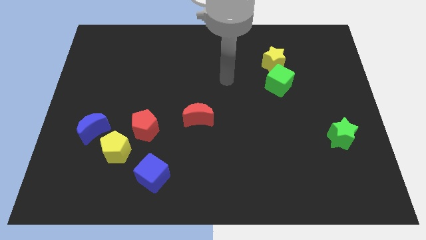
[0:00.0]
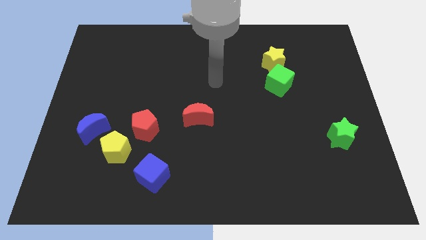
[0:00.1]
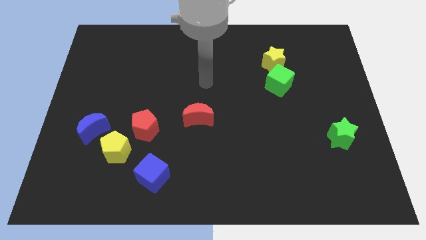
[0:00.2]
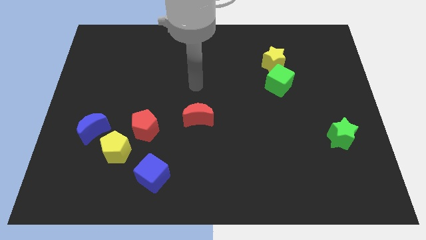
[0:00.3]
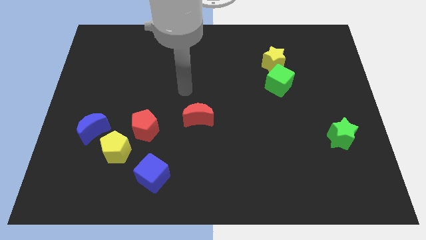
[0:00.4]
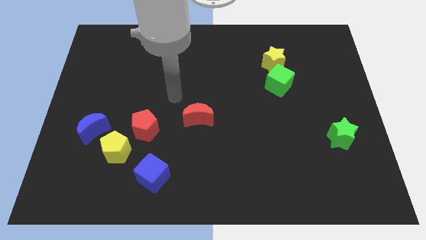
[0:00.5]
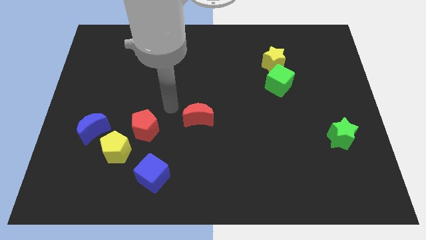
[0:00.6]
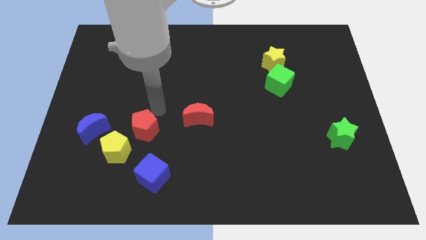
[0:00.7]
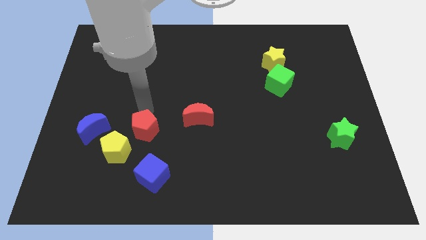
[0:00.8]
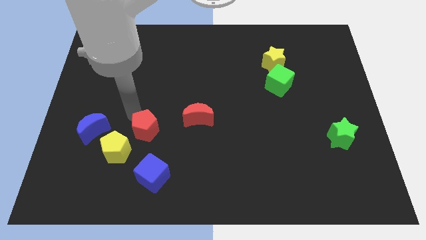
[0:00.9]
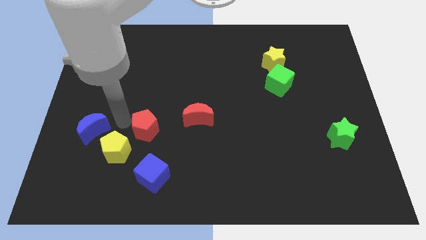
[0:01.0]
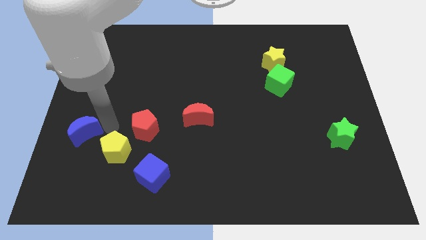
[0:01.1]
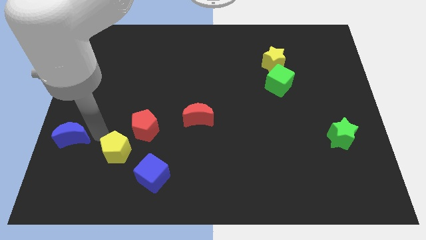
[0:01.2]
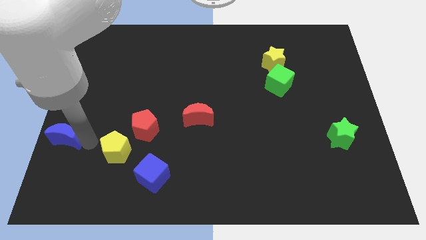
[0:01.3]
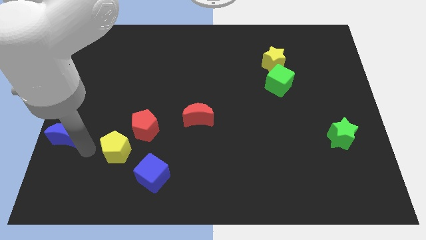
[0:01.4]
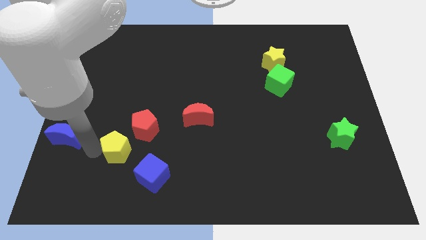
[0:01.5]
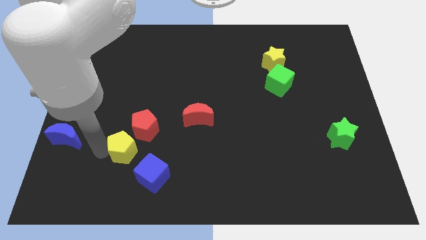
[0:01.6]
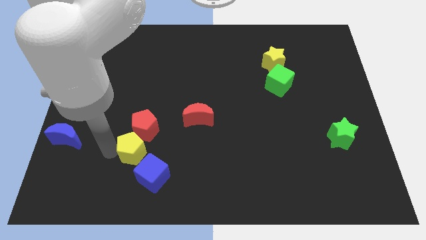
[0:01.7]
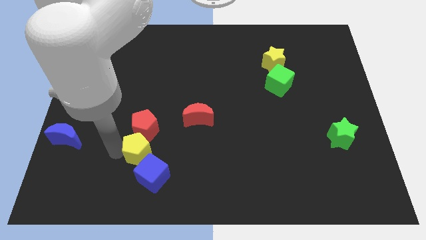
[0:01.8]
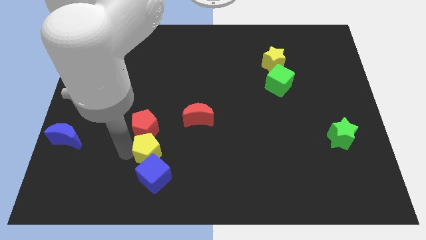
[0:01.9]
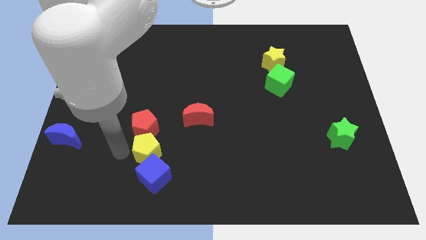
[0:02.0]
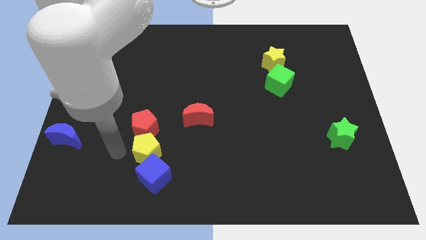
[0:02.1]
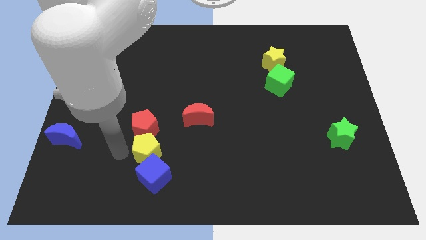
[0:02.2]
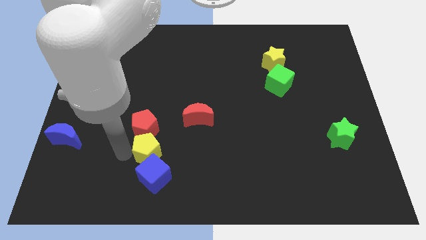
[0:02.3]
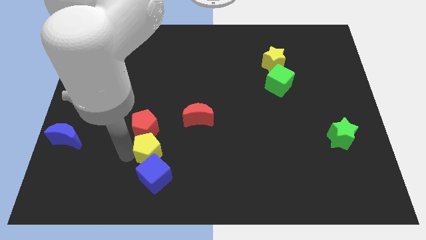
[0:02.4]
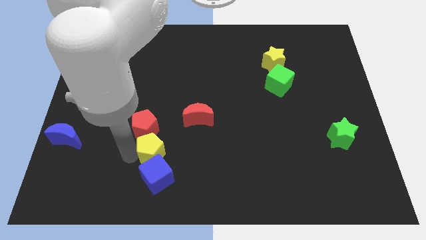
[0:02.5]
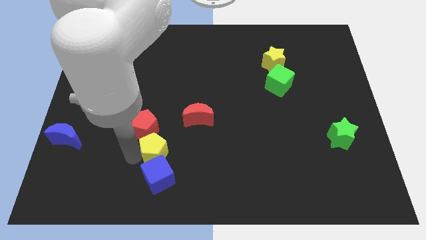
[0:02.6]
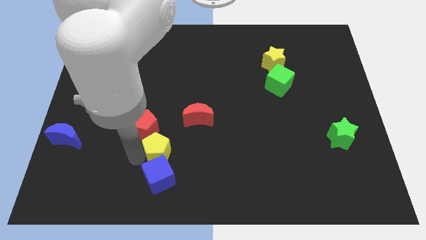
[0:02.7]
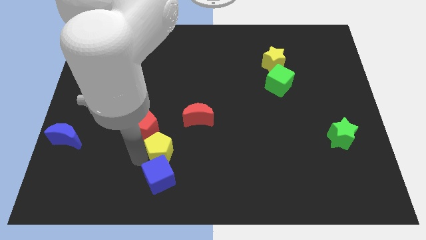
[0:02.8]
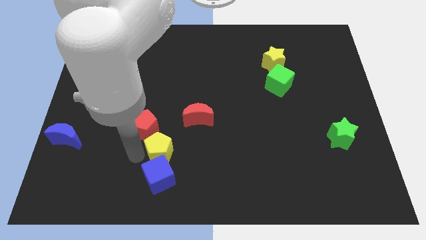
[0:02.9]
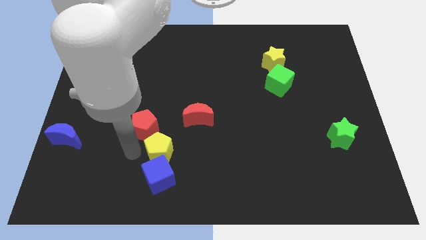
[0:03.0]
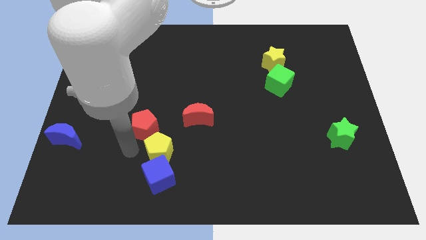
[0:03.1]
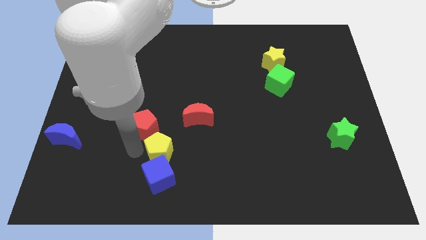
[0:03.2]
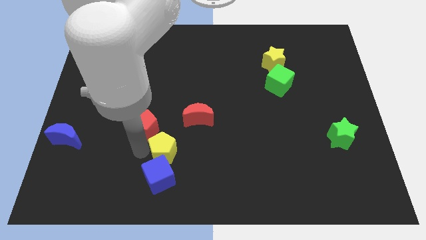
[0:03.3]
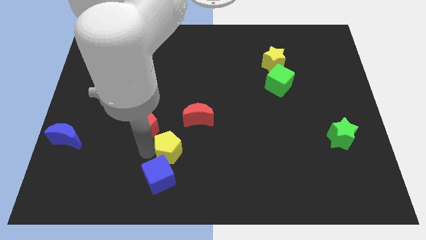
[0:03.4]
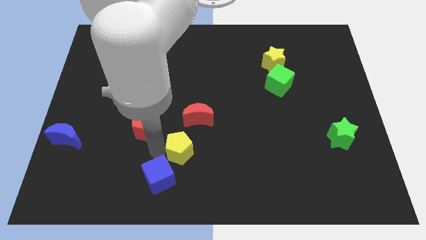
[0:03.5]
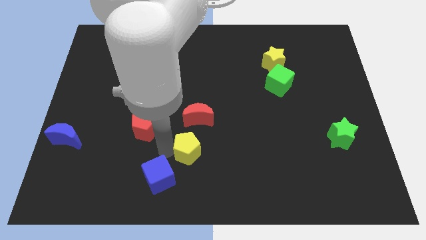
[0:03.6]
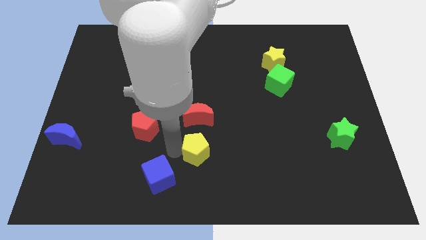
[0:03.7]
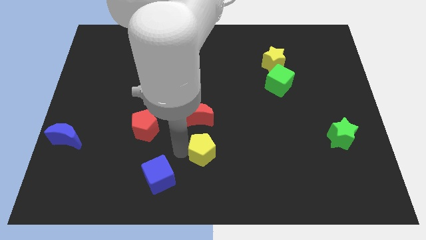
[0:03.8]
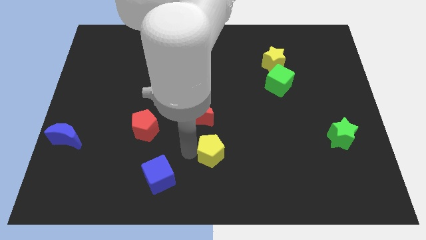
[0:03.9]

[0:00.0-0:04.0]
slide the yellow pentagon right

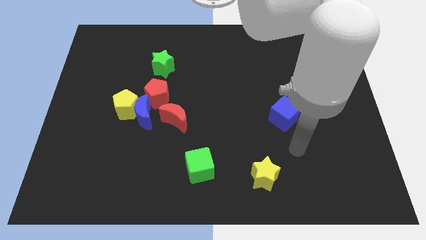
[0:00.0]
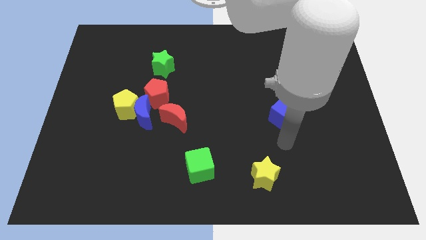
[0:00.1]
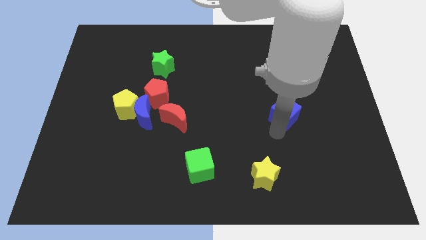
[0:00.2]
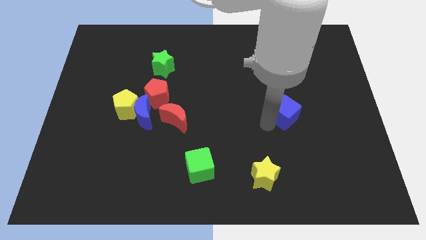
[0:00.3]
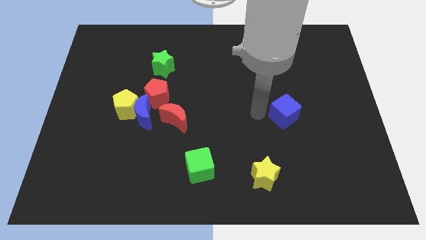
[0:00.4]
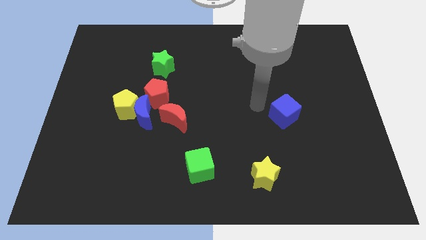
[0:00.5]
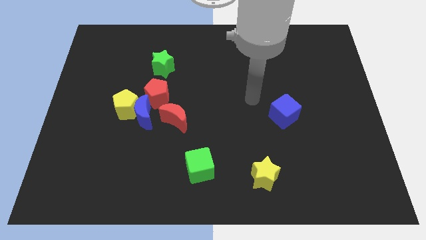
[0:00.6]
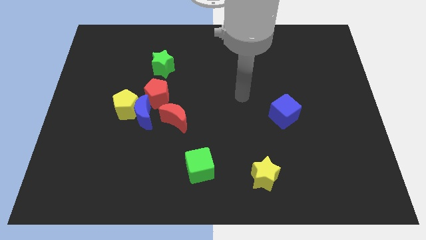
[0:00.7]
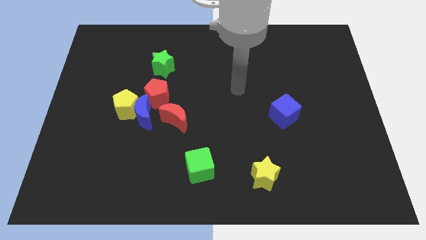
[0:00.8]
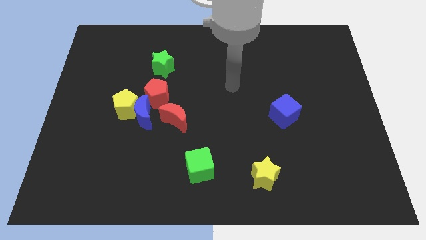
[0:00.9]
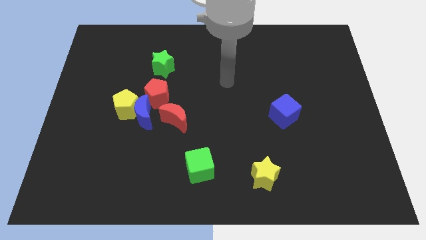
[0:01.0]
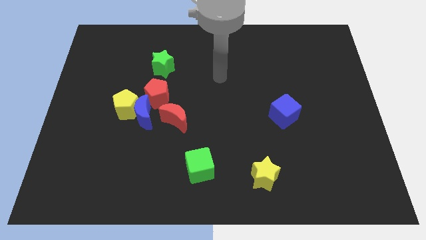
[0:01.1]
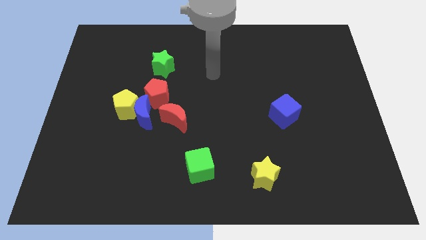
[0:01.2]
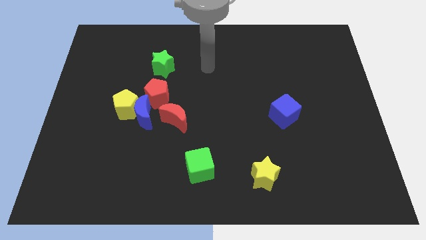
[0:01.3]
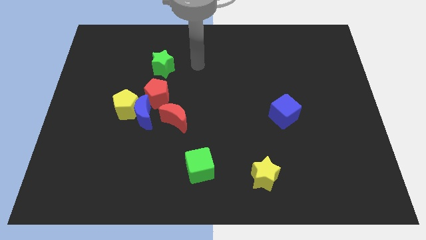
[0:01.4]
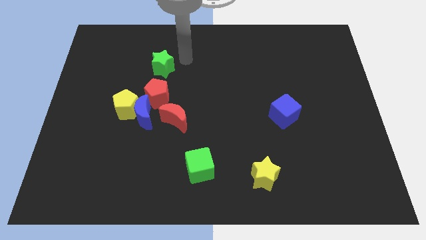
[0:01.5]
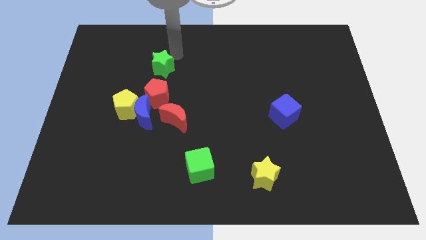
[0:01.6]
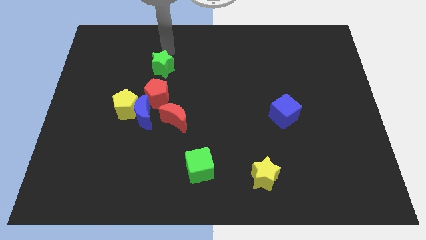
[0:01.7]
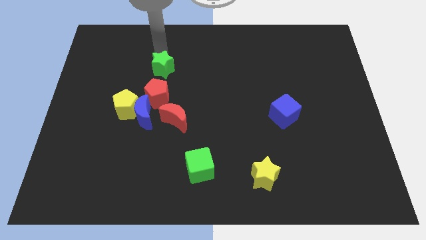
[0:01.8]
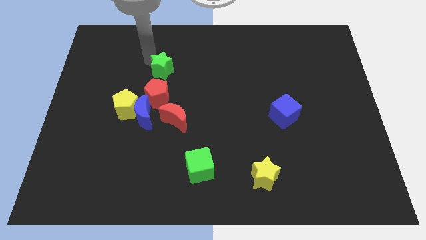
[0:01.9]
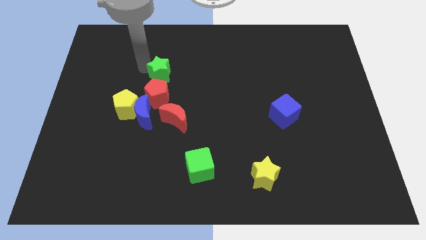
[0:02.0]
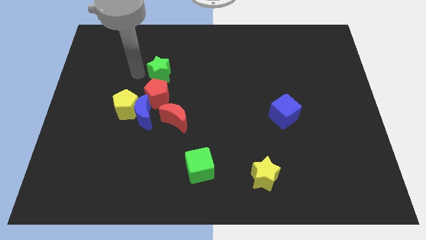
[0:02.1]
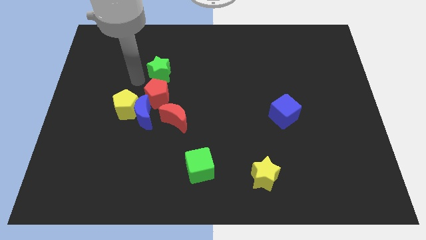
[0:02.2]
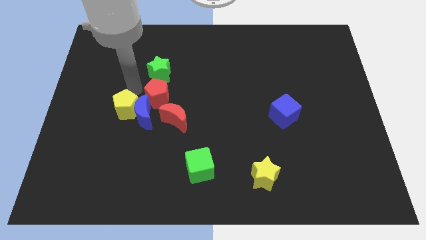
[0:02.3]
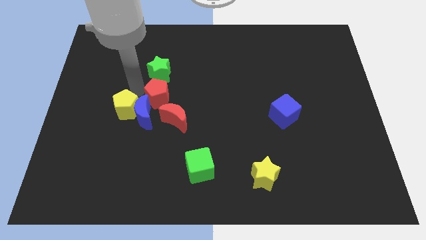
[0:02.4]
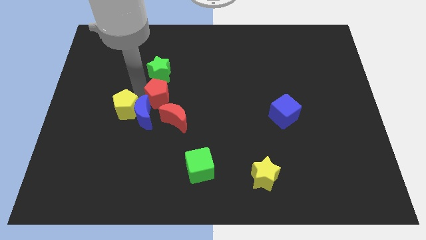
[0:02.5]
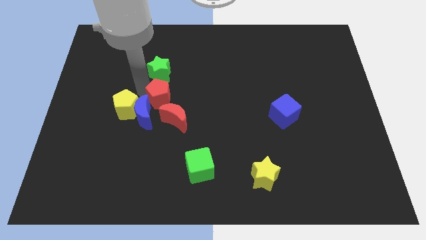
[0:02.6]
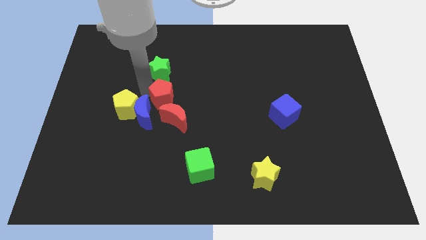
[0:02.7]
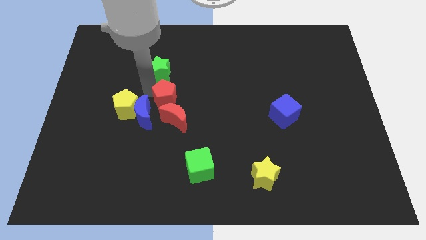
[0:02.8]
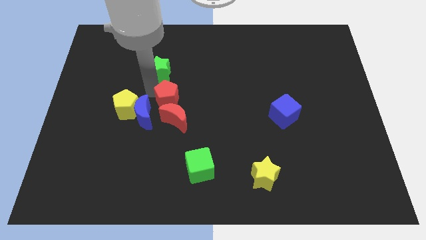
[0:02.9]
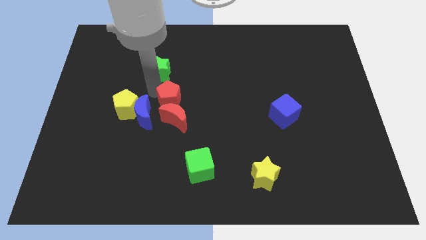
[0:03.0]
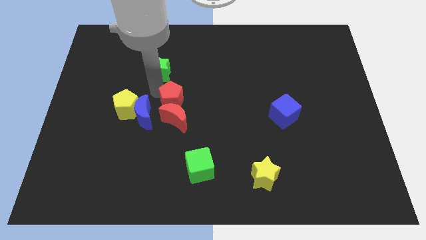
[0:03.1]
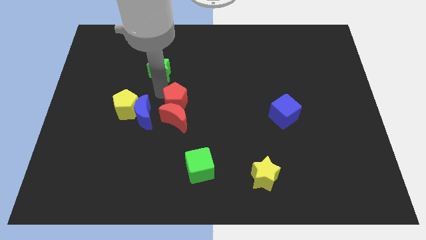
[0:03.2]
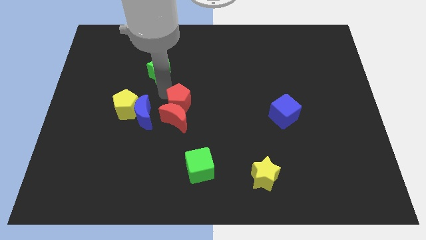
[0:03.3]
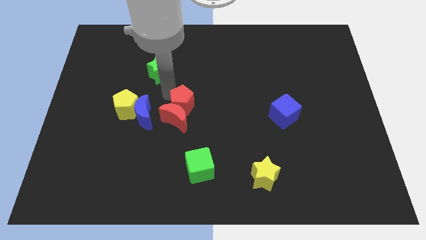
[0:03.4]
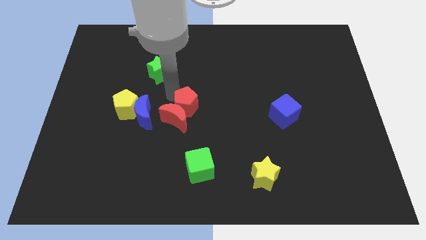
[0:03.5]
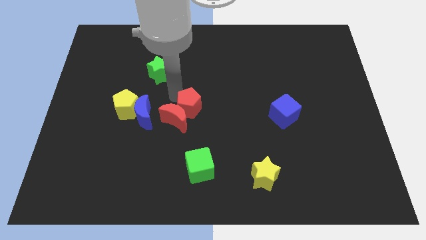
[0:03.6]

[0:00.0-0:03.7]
slide the red pentagon down and right diagonally somewhat

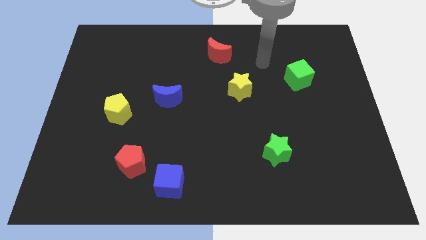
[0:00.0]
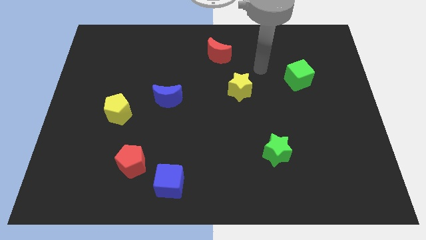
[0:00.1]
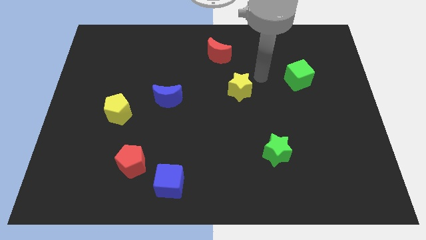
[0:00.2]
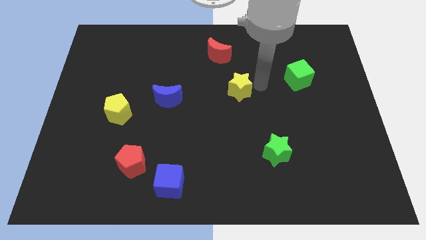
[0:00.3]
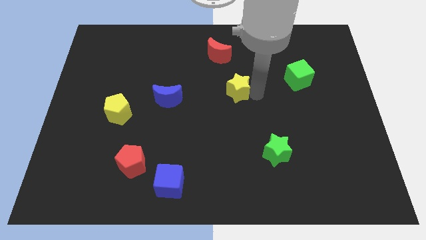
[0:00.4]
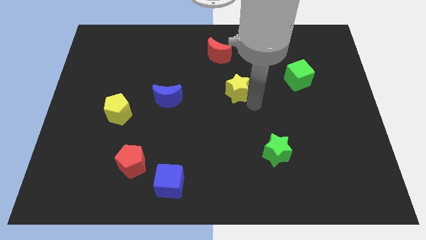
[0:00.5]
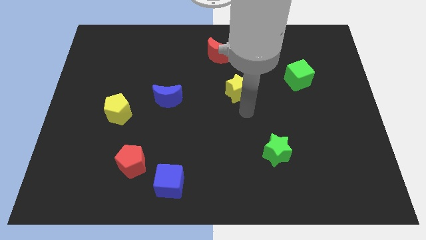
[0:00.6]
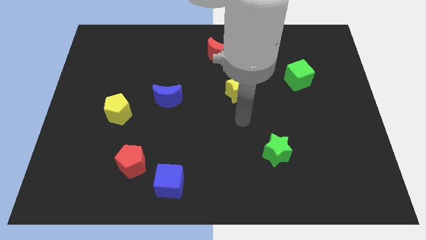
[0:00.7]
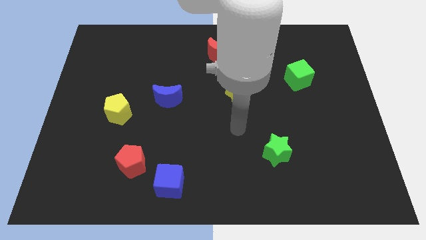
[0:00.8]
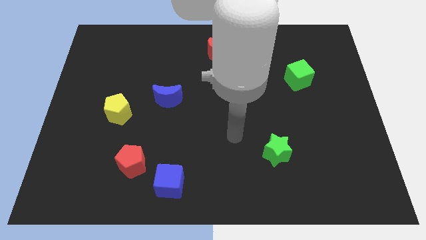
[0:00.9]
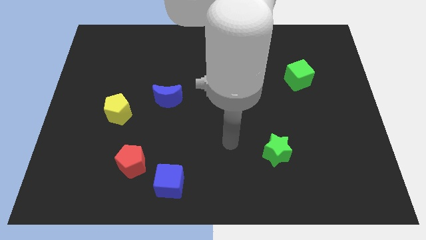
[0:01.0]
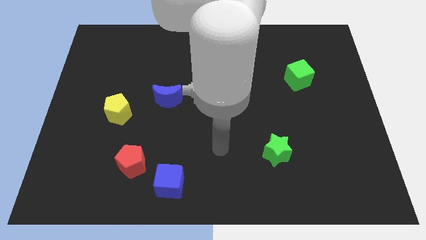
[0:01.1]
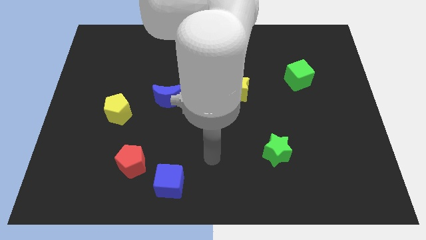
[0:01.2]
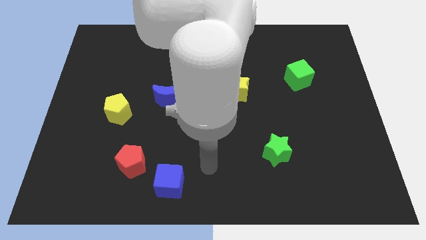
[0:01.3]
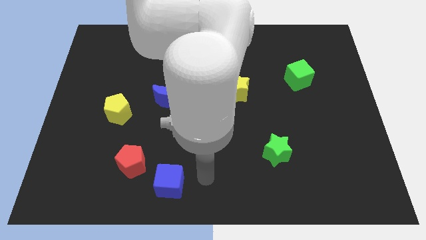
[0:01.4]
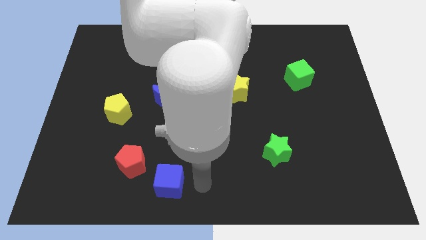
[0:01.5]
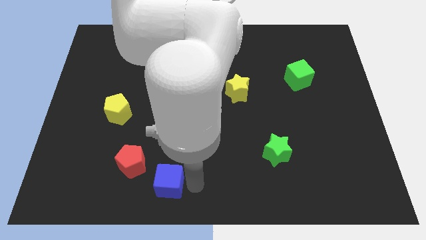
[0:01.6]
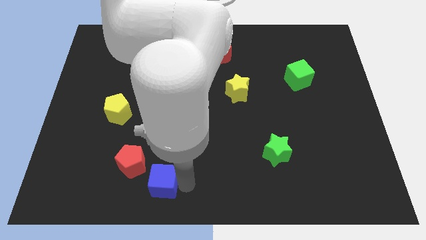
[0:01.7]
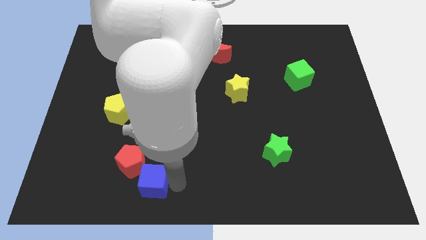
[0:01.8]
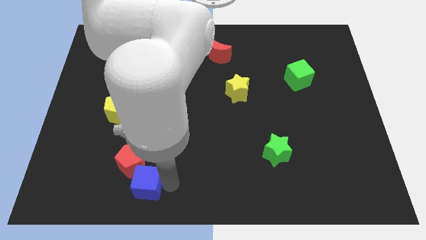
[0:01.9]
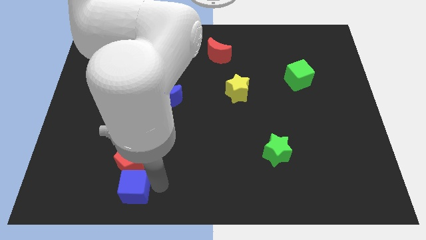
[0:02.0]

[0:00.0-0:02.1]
slide the blue cube slightly to the left
